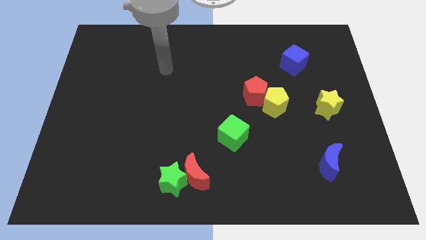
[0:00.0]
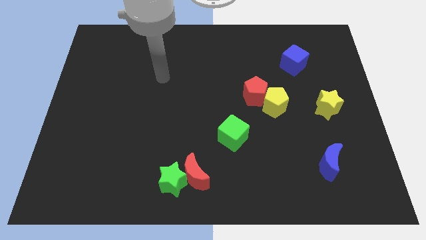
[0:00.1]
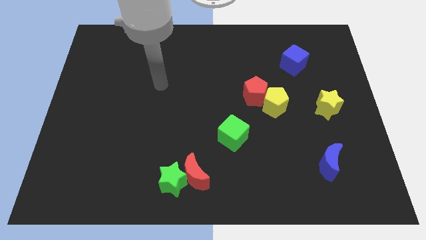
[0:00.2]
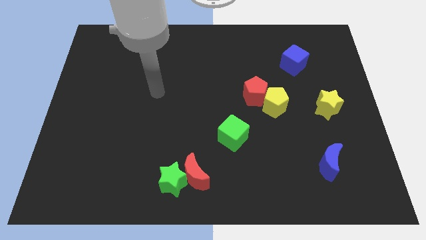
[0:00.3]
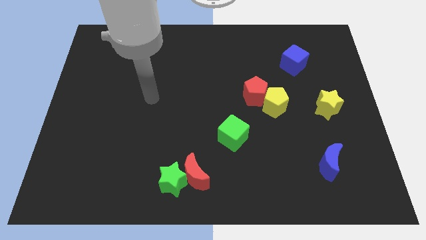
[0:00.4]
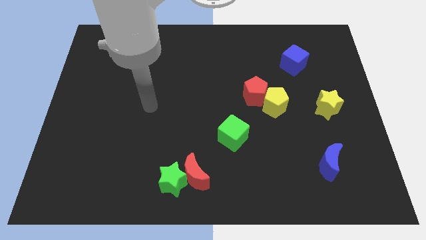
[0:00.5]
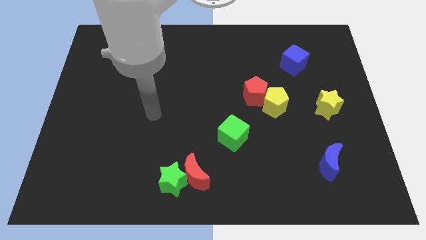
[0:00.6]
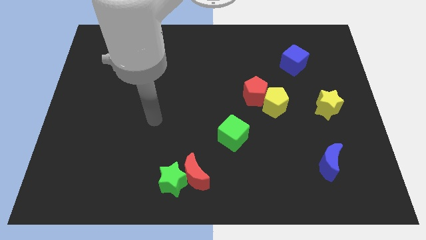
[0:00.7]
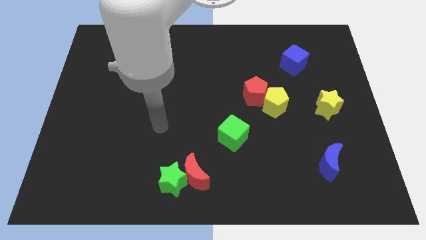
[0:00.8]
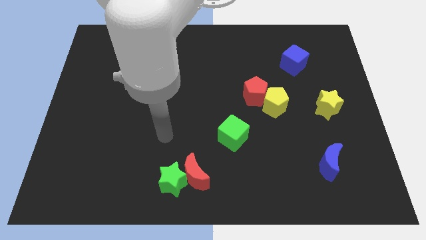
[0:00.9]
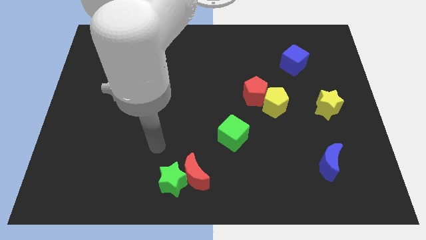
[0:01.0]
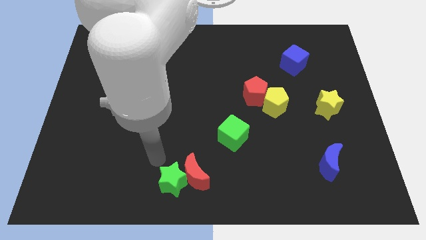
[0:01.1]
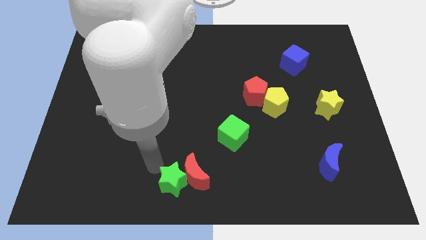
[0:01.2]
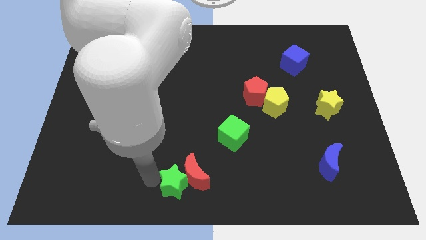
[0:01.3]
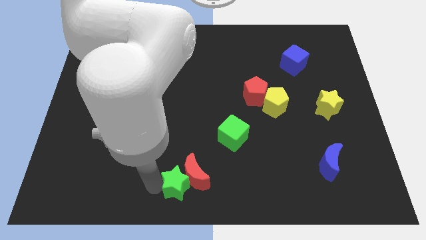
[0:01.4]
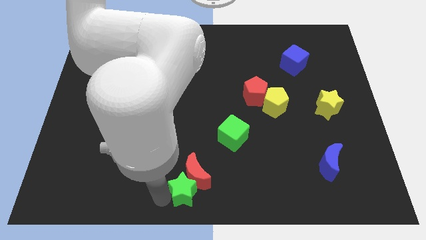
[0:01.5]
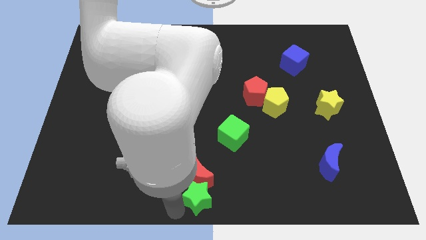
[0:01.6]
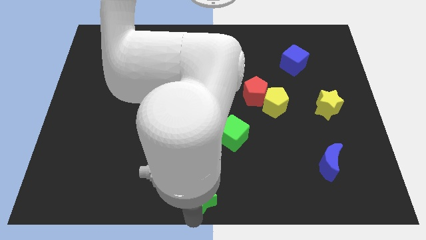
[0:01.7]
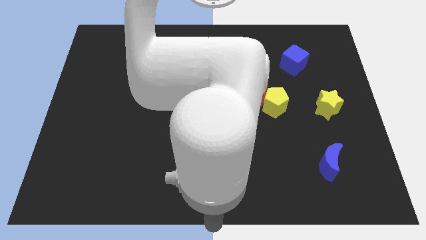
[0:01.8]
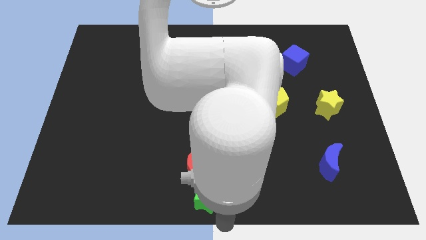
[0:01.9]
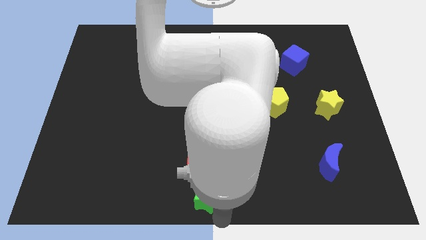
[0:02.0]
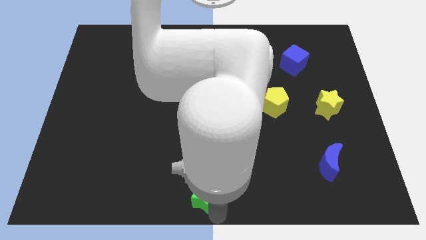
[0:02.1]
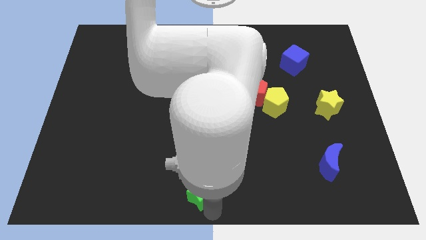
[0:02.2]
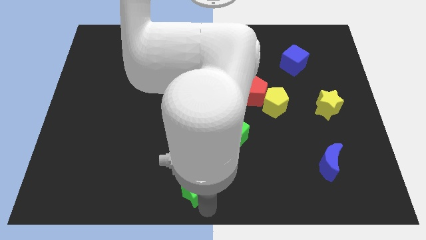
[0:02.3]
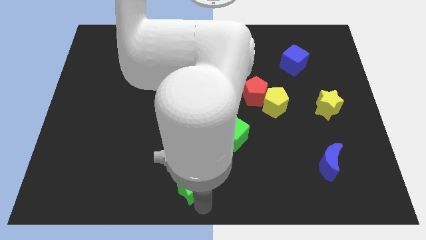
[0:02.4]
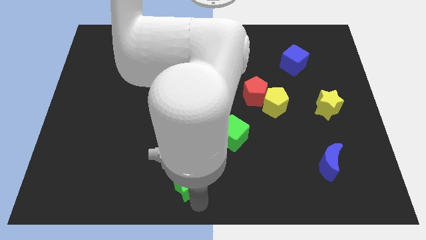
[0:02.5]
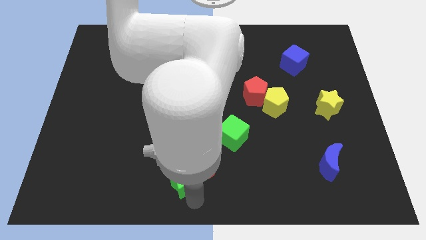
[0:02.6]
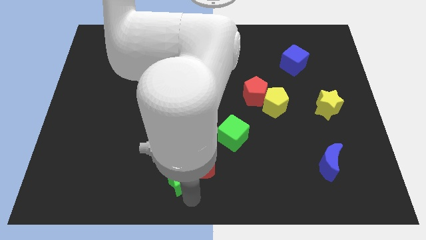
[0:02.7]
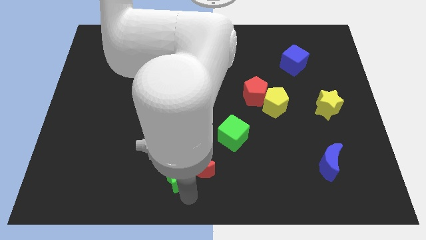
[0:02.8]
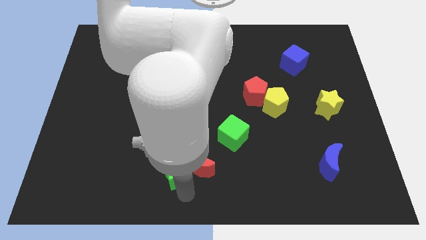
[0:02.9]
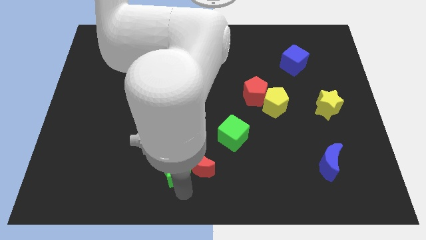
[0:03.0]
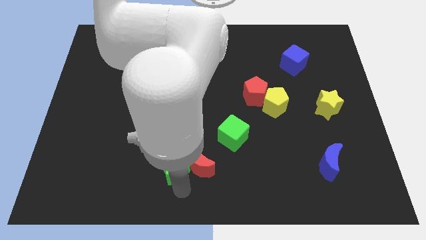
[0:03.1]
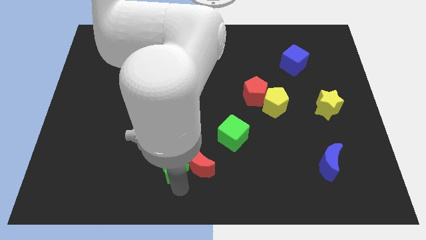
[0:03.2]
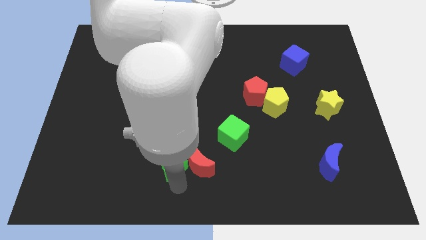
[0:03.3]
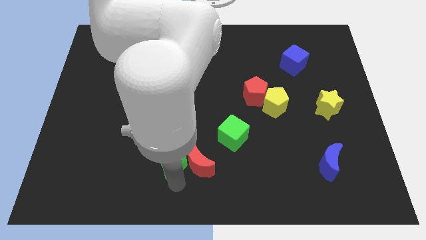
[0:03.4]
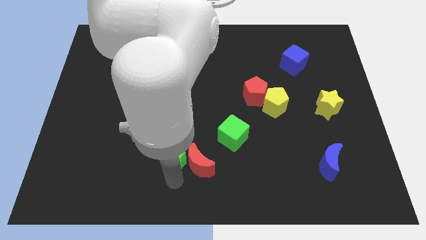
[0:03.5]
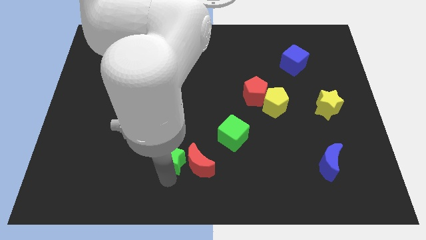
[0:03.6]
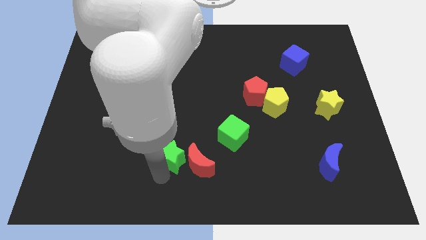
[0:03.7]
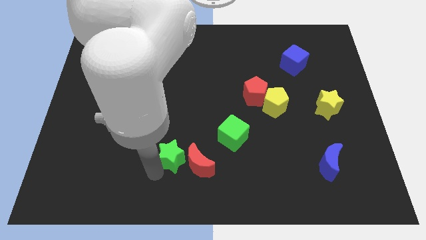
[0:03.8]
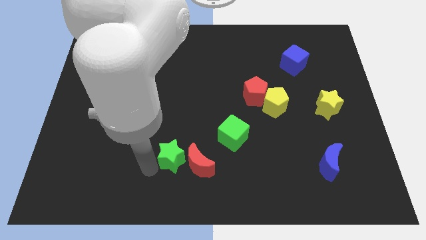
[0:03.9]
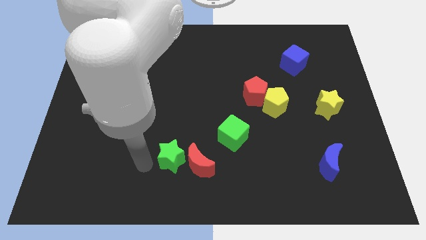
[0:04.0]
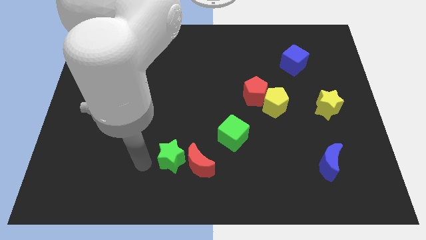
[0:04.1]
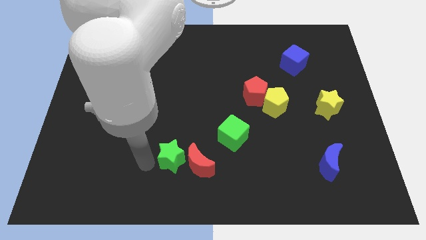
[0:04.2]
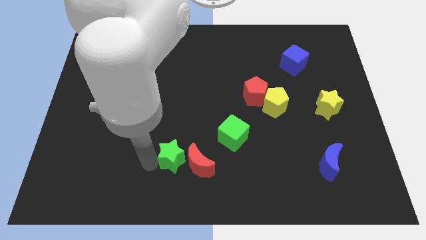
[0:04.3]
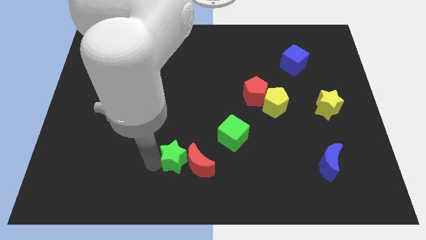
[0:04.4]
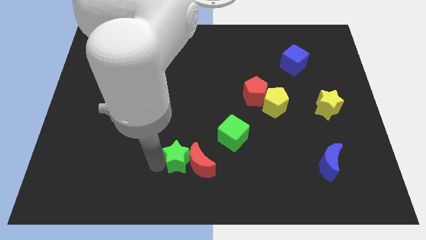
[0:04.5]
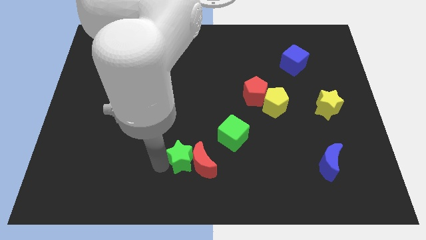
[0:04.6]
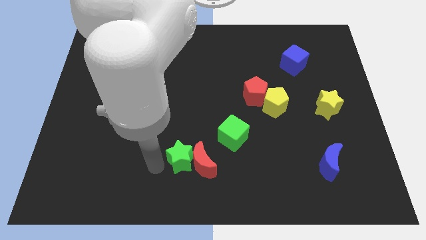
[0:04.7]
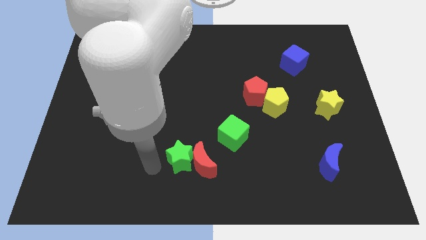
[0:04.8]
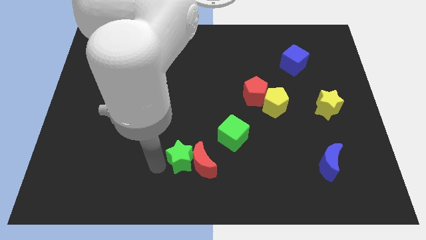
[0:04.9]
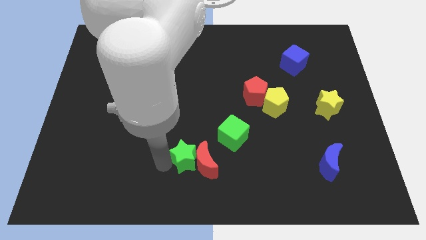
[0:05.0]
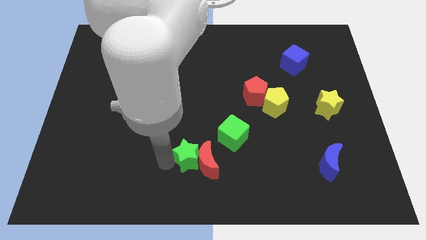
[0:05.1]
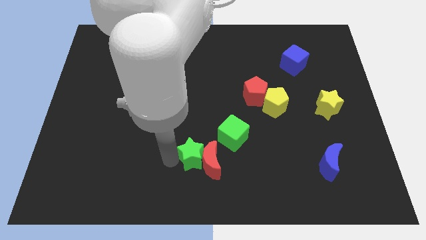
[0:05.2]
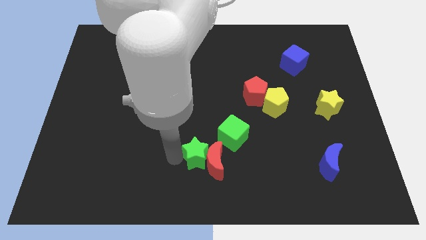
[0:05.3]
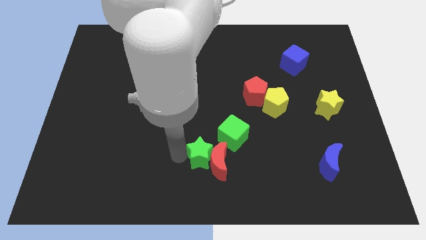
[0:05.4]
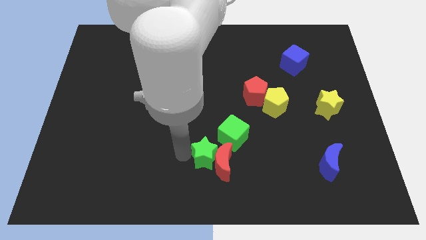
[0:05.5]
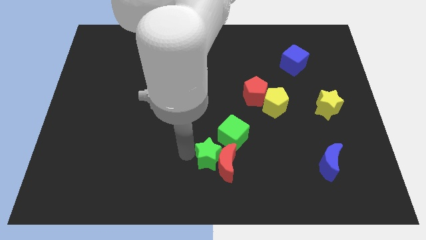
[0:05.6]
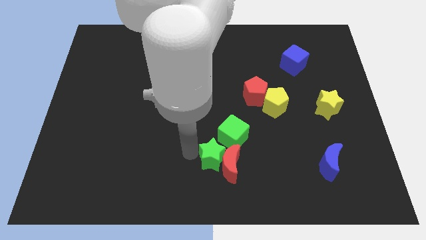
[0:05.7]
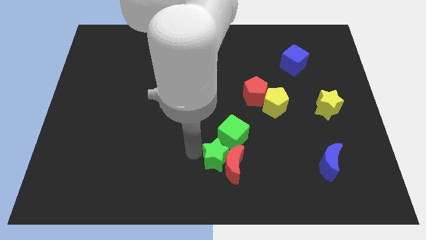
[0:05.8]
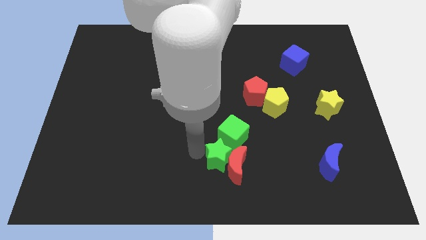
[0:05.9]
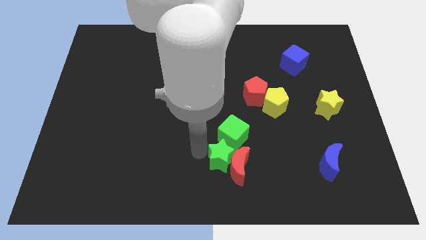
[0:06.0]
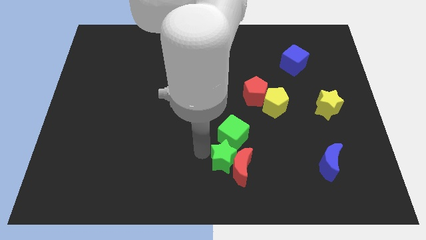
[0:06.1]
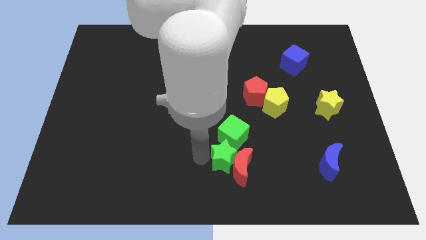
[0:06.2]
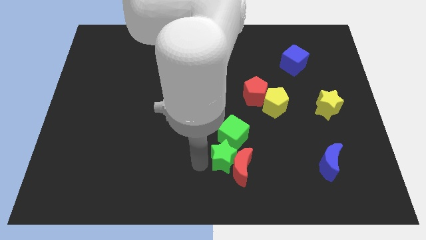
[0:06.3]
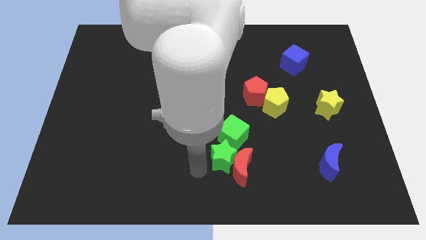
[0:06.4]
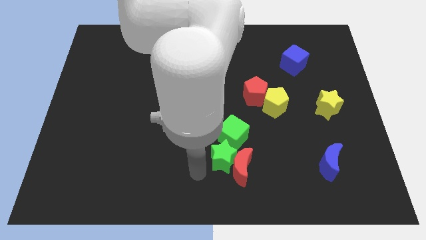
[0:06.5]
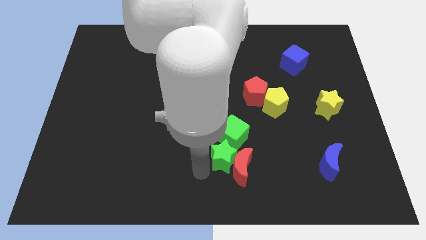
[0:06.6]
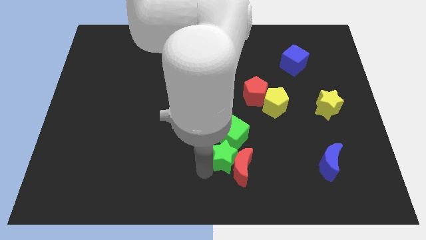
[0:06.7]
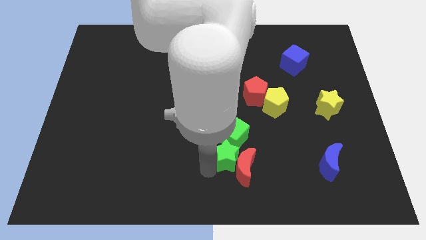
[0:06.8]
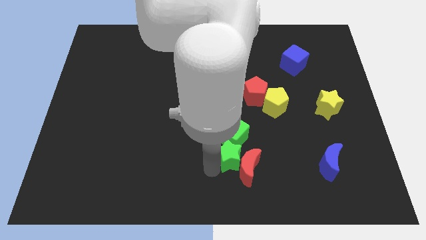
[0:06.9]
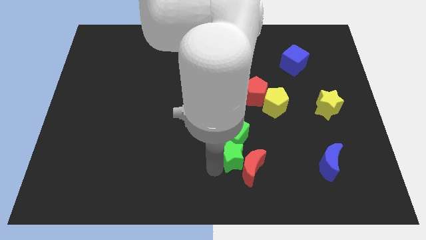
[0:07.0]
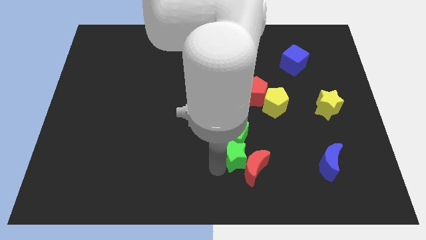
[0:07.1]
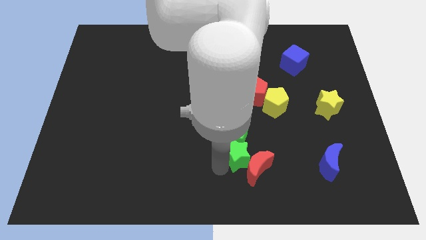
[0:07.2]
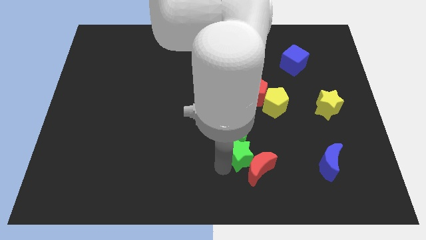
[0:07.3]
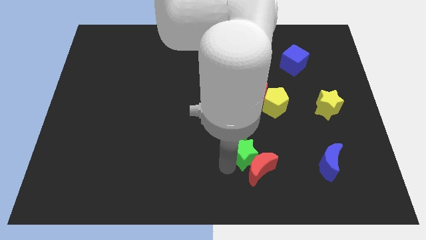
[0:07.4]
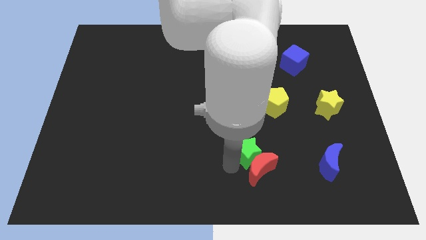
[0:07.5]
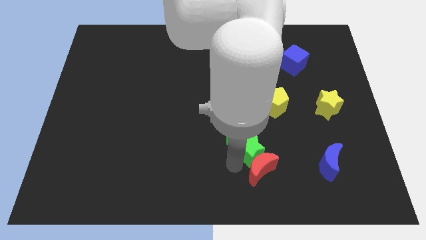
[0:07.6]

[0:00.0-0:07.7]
put the green star to the bottom of the red pentagon
